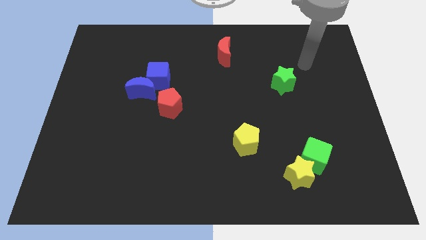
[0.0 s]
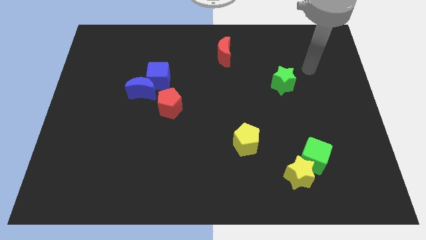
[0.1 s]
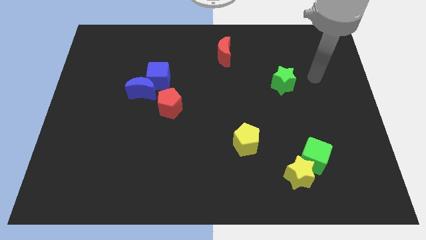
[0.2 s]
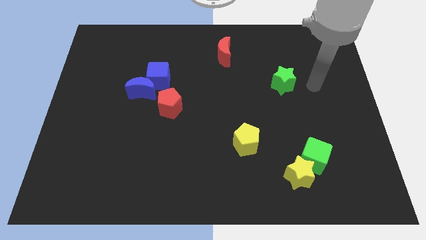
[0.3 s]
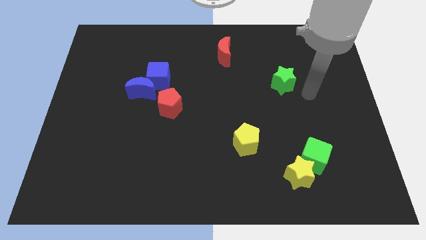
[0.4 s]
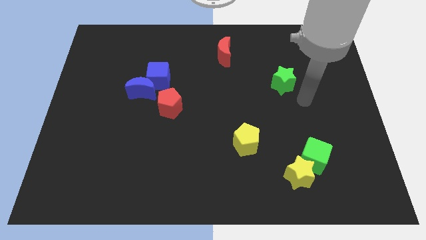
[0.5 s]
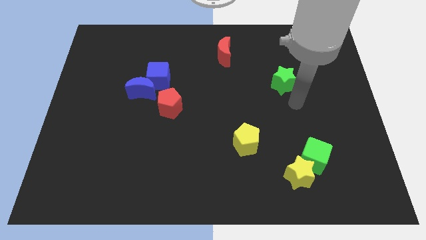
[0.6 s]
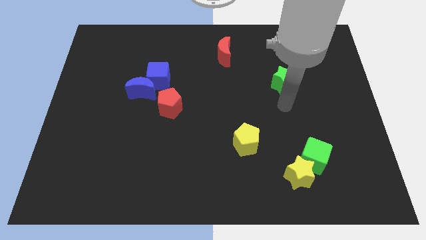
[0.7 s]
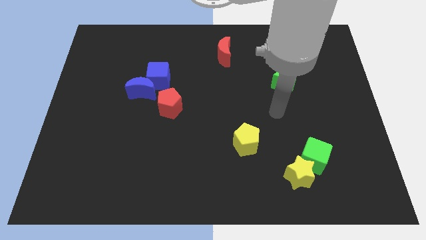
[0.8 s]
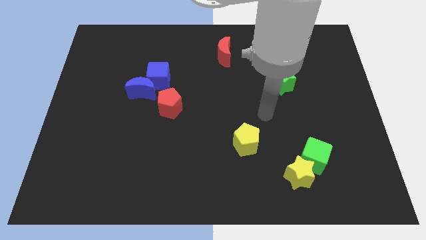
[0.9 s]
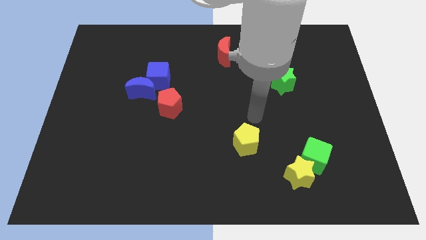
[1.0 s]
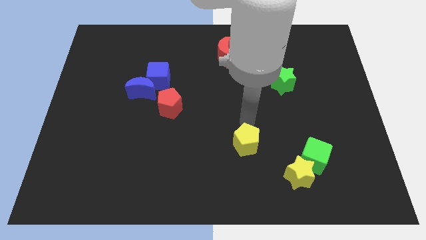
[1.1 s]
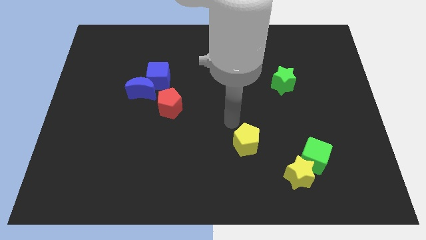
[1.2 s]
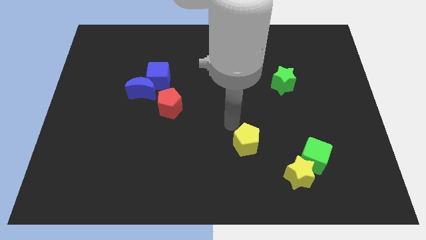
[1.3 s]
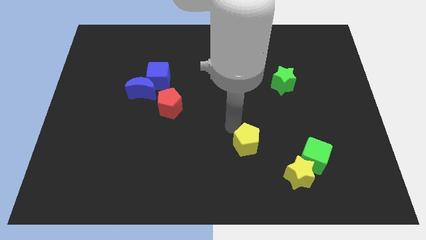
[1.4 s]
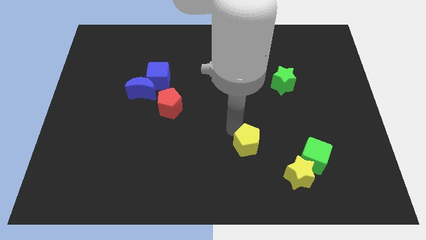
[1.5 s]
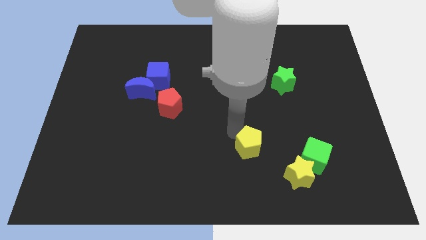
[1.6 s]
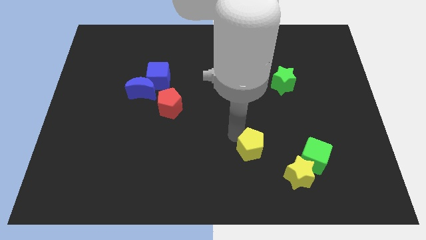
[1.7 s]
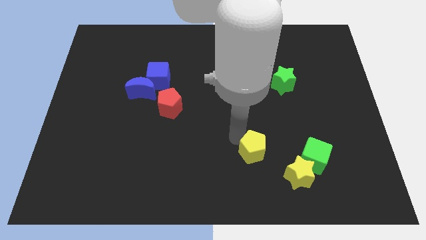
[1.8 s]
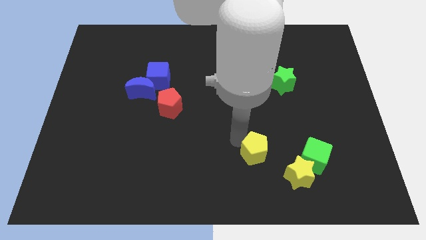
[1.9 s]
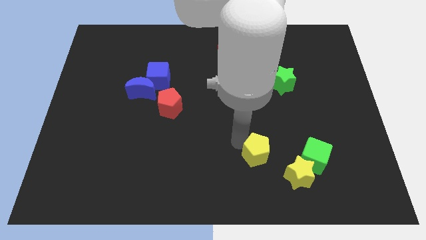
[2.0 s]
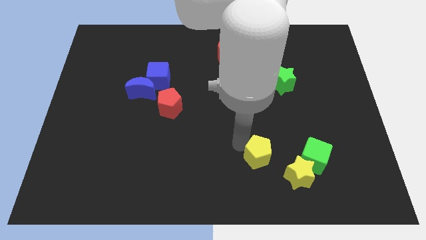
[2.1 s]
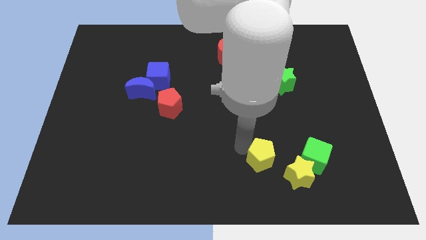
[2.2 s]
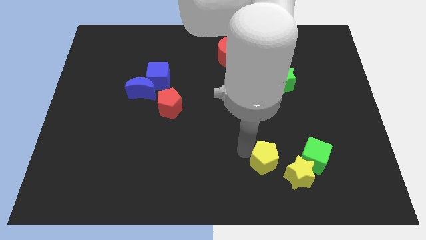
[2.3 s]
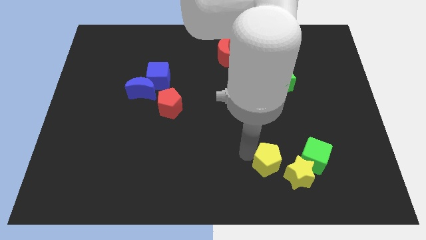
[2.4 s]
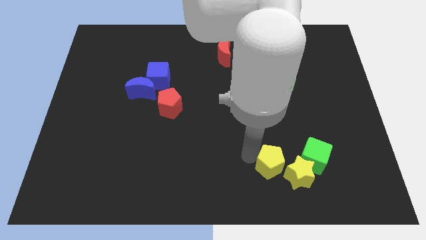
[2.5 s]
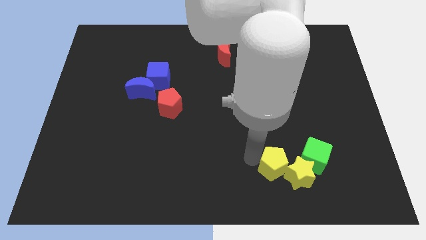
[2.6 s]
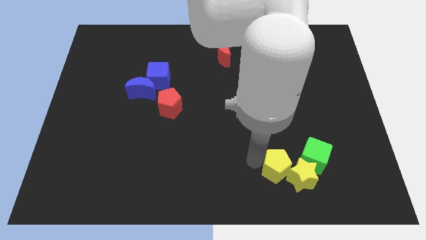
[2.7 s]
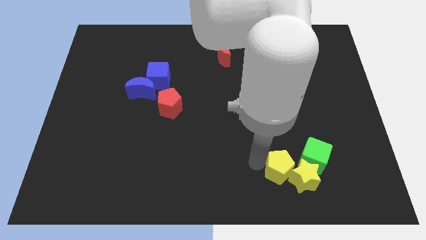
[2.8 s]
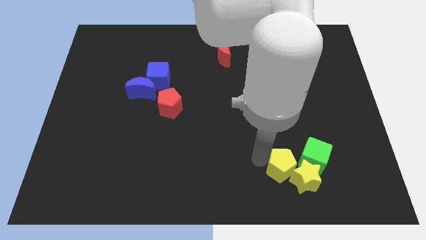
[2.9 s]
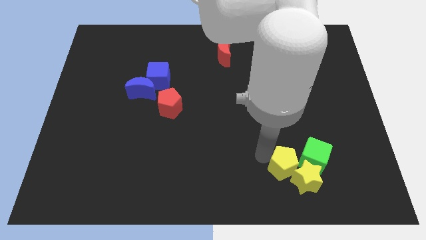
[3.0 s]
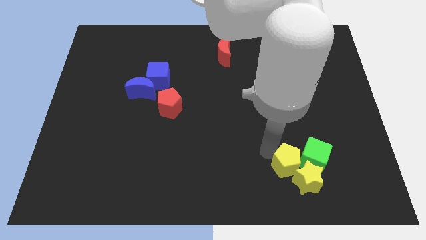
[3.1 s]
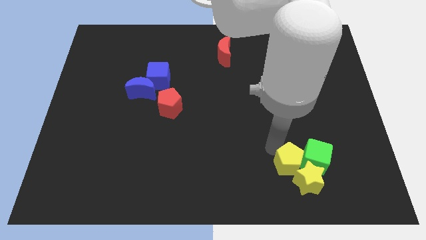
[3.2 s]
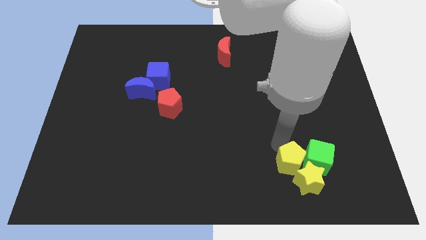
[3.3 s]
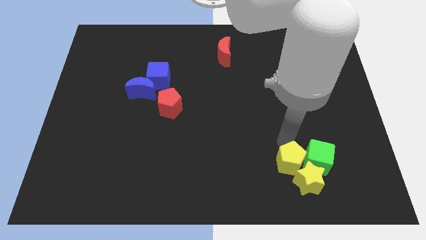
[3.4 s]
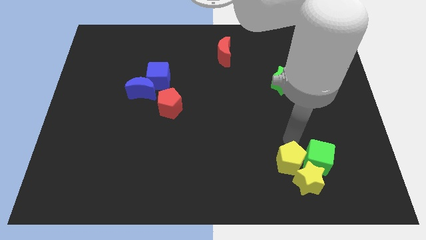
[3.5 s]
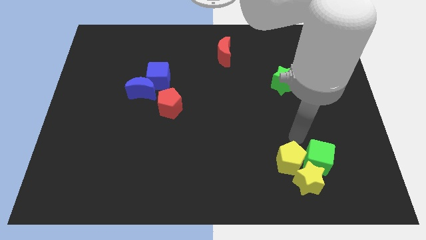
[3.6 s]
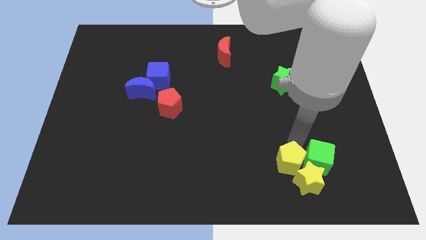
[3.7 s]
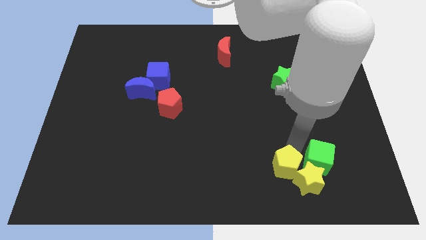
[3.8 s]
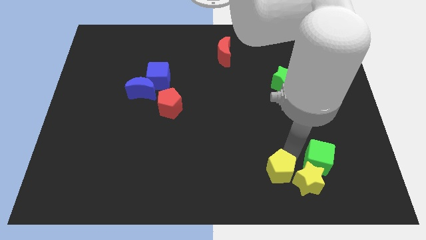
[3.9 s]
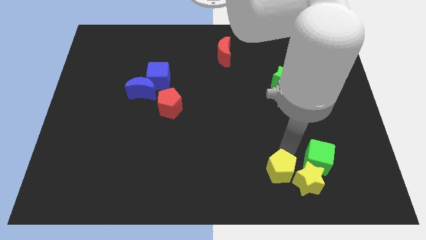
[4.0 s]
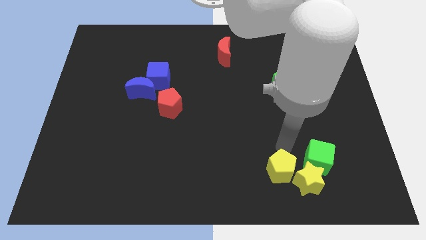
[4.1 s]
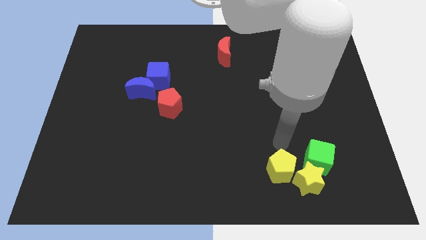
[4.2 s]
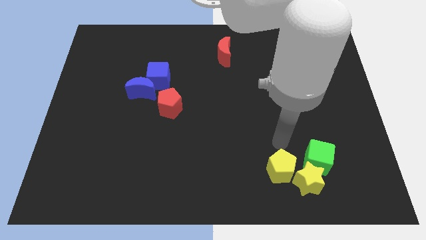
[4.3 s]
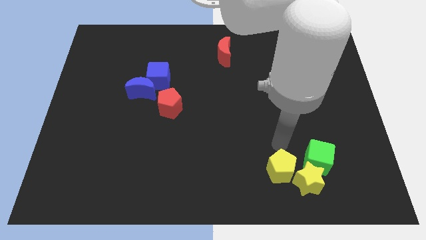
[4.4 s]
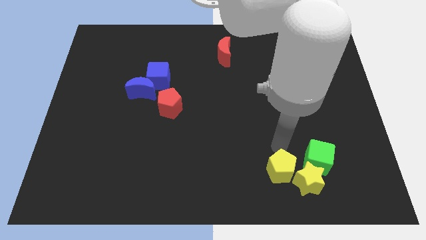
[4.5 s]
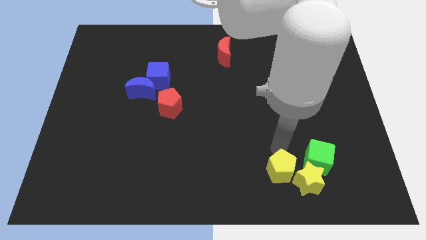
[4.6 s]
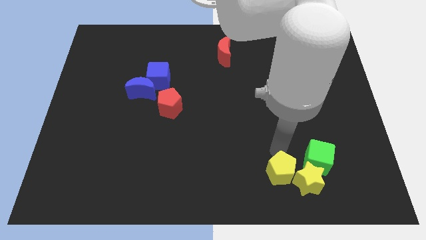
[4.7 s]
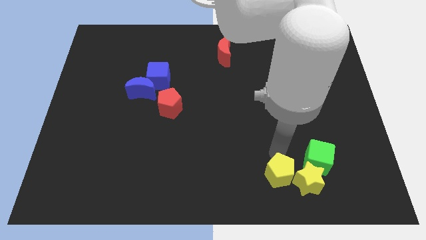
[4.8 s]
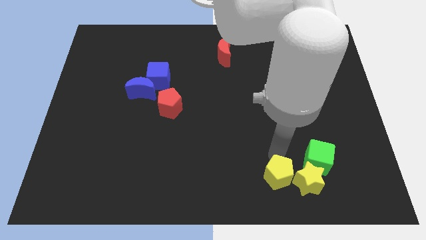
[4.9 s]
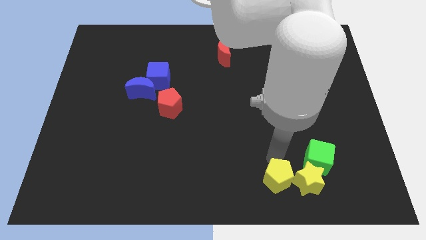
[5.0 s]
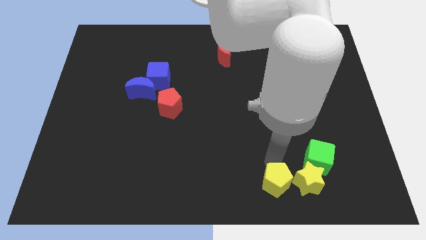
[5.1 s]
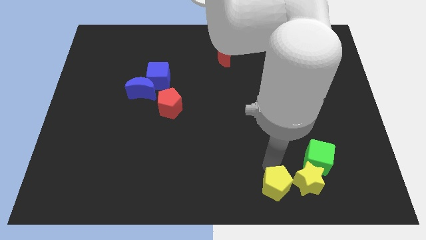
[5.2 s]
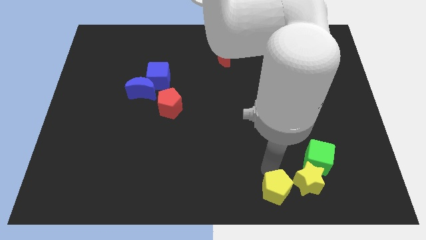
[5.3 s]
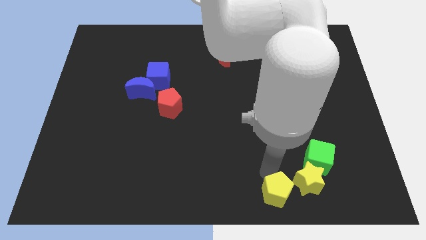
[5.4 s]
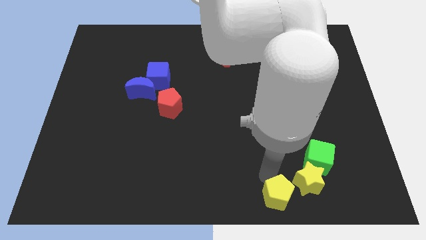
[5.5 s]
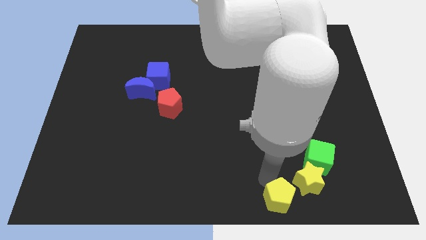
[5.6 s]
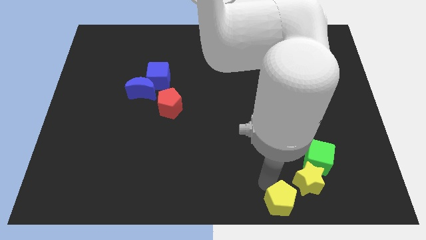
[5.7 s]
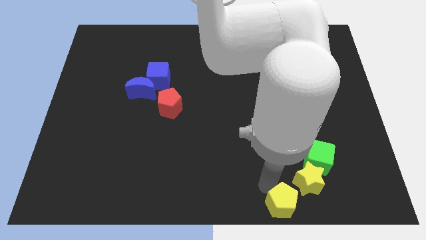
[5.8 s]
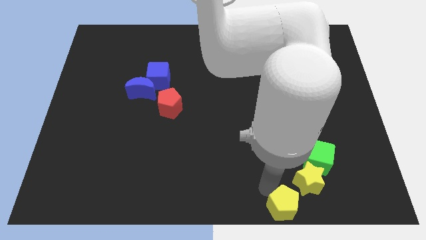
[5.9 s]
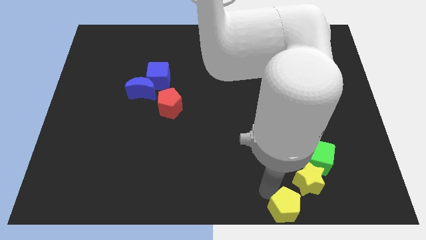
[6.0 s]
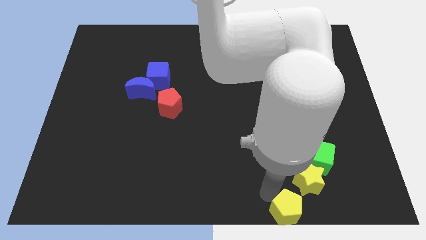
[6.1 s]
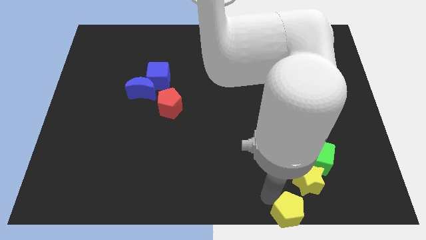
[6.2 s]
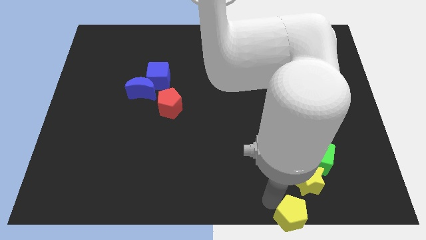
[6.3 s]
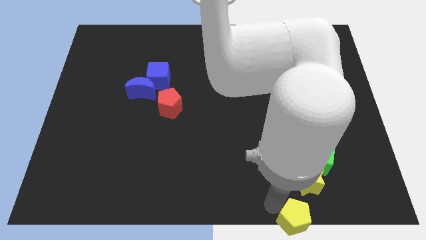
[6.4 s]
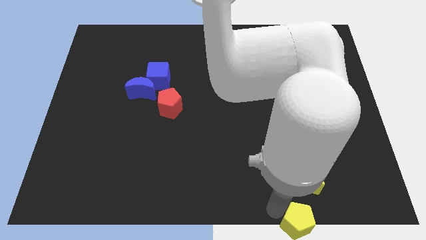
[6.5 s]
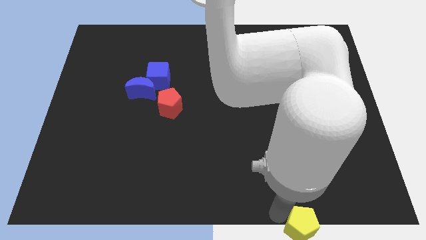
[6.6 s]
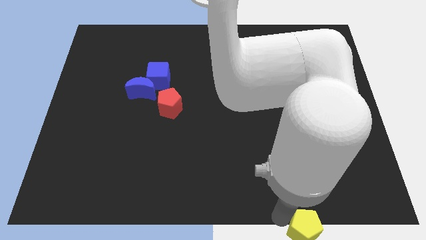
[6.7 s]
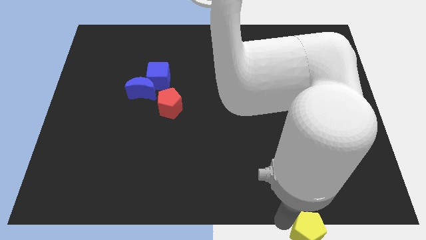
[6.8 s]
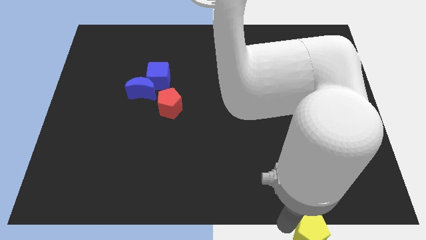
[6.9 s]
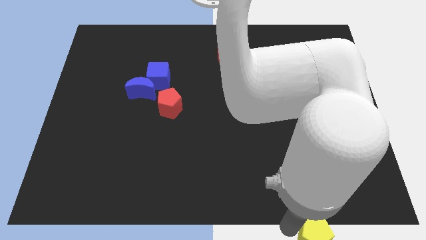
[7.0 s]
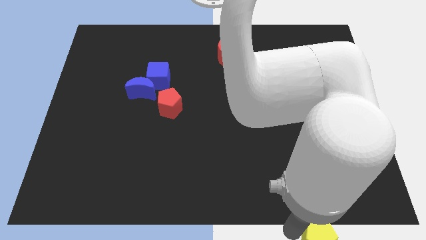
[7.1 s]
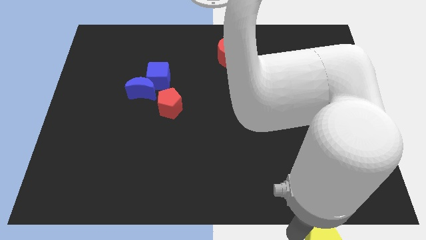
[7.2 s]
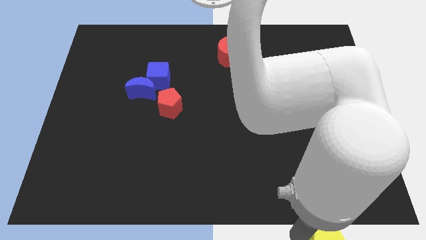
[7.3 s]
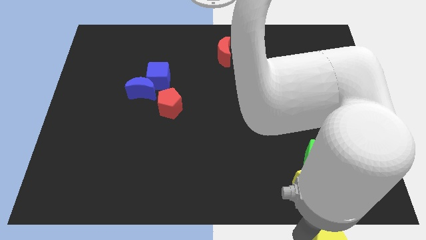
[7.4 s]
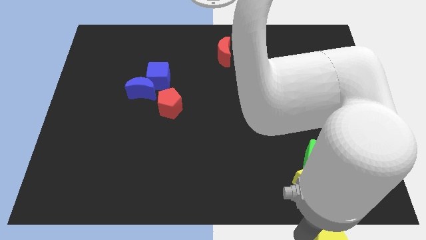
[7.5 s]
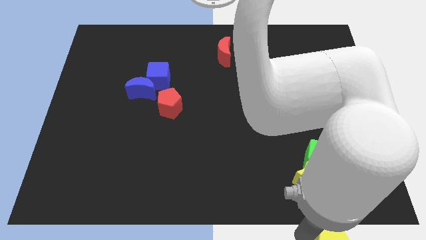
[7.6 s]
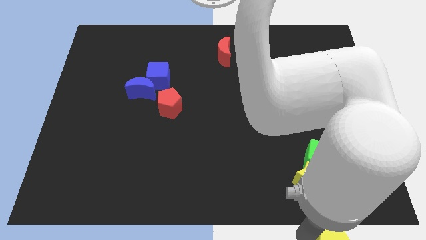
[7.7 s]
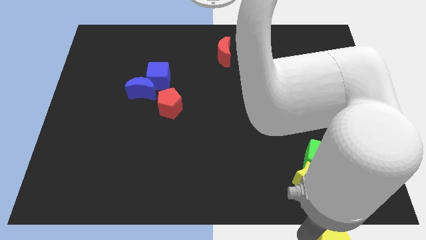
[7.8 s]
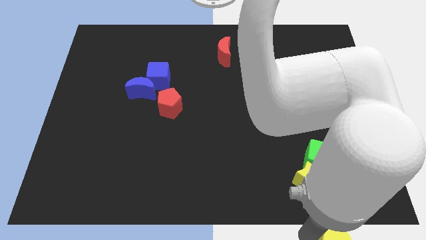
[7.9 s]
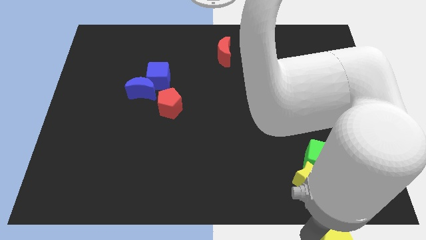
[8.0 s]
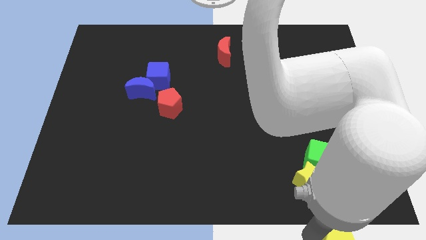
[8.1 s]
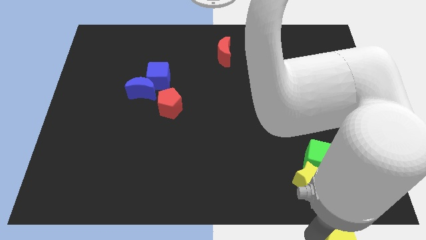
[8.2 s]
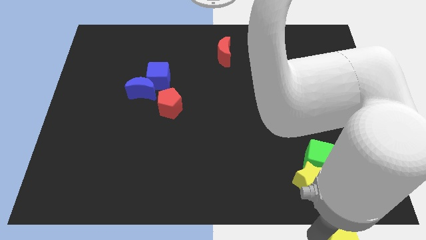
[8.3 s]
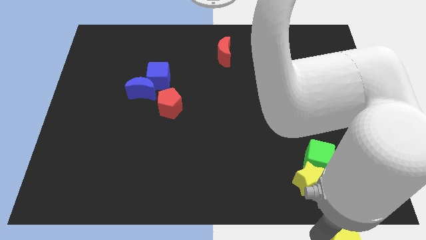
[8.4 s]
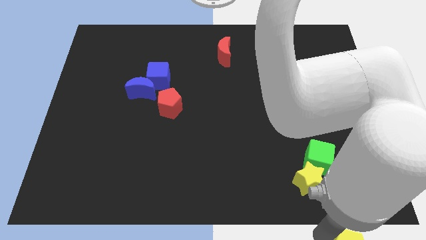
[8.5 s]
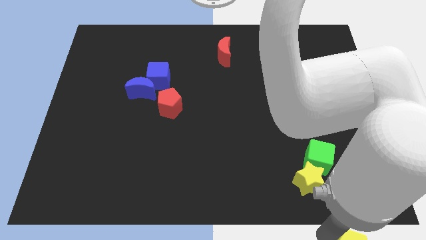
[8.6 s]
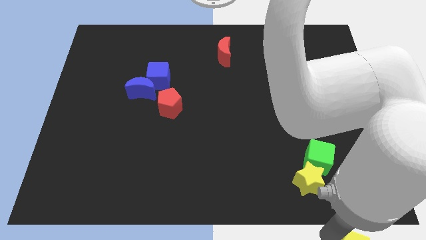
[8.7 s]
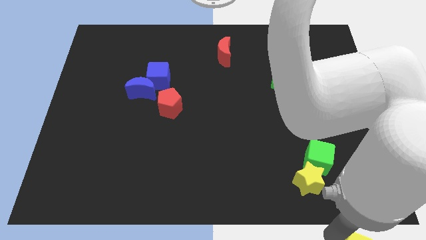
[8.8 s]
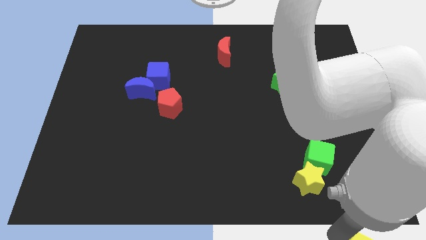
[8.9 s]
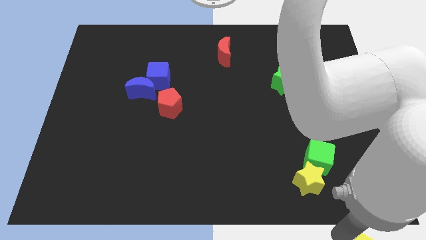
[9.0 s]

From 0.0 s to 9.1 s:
push the yellow pentagon to the bottom right corner
